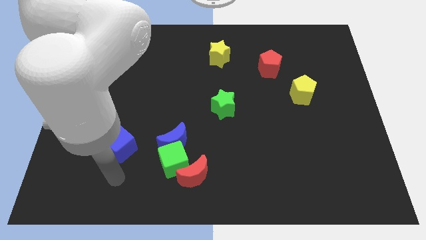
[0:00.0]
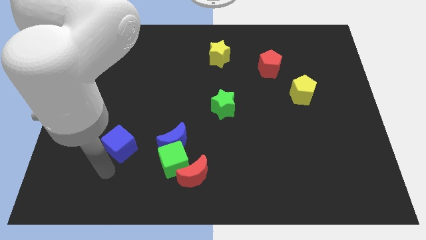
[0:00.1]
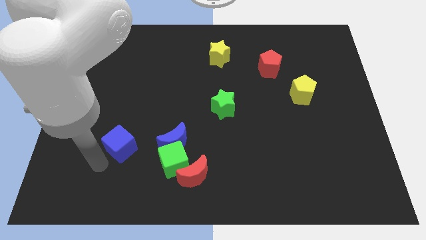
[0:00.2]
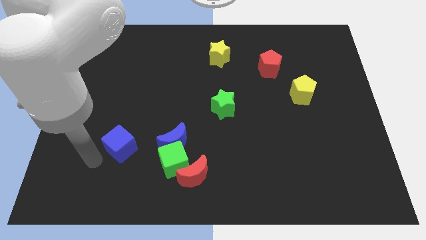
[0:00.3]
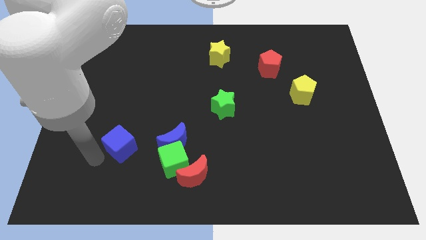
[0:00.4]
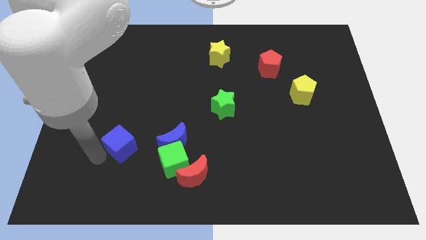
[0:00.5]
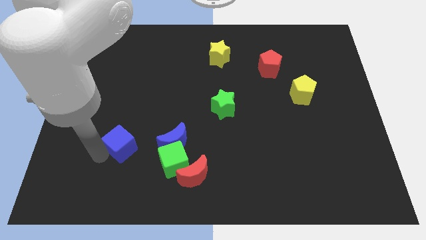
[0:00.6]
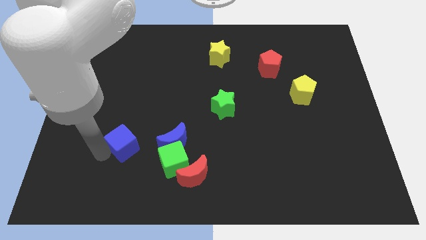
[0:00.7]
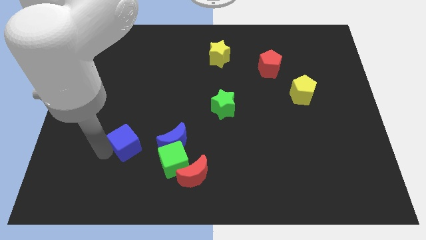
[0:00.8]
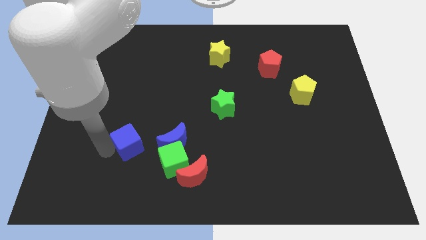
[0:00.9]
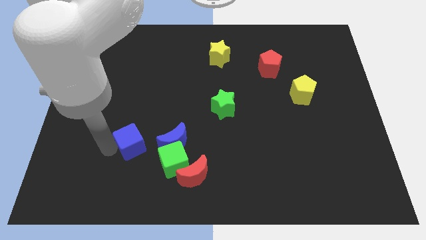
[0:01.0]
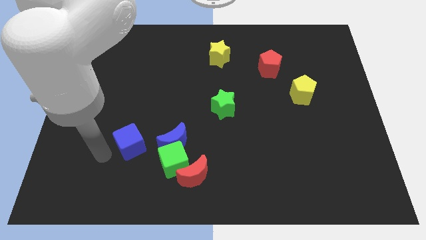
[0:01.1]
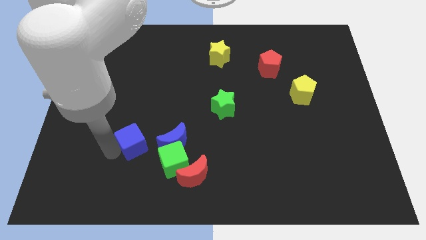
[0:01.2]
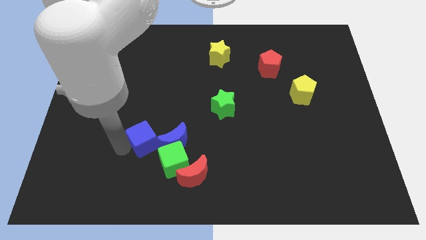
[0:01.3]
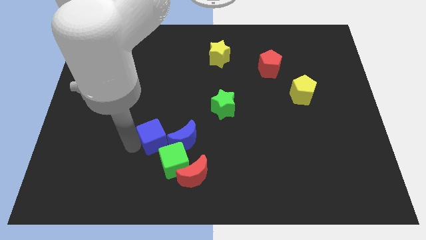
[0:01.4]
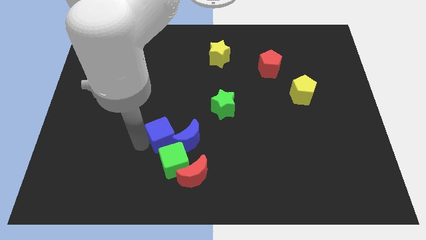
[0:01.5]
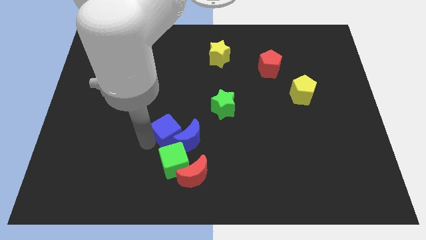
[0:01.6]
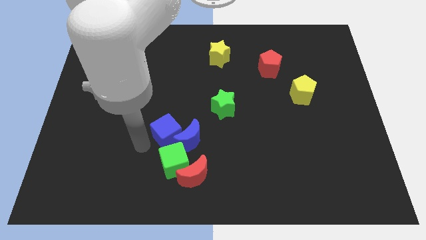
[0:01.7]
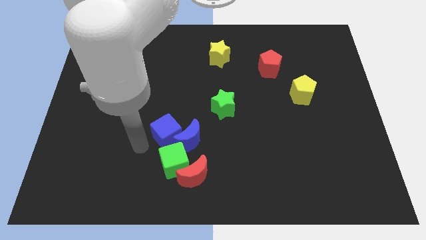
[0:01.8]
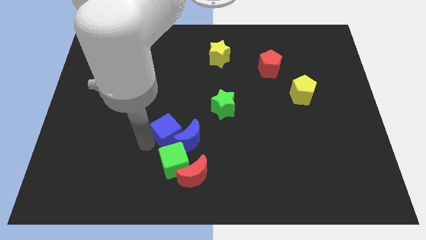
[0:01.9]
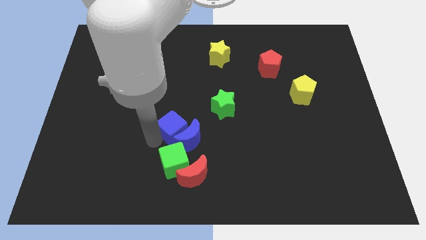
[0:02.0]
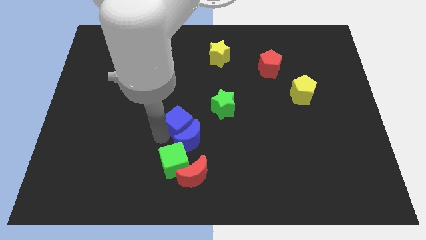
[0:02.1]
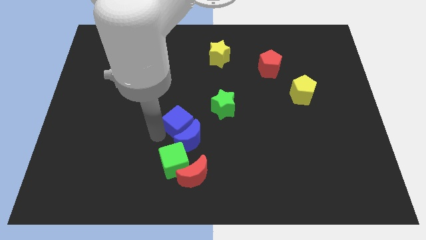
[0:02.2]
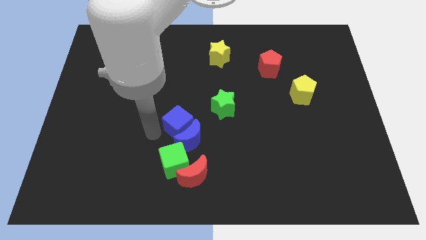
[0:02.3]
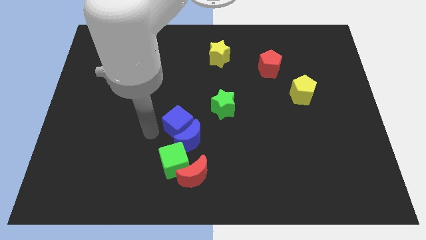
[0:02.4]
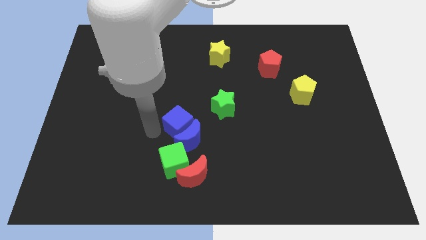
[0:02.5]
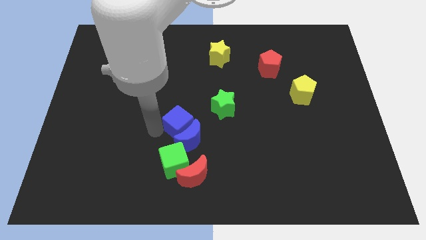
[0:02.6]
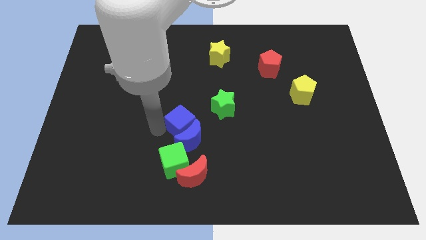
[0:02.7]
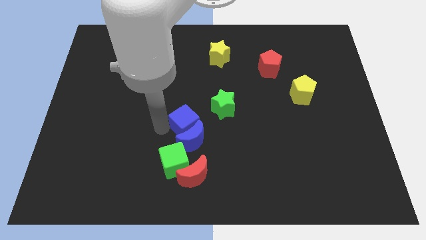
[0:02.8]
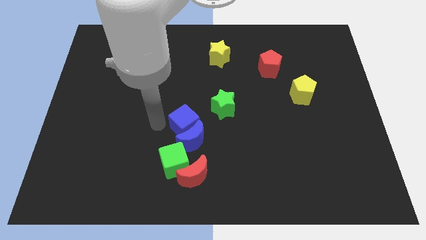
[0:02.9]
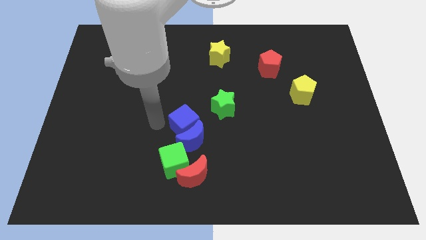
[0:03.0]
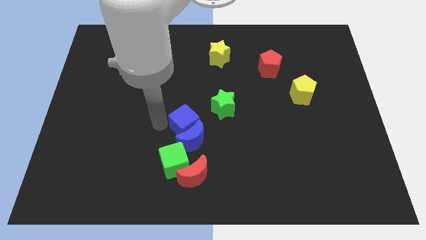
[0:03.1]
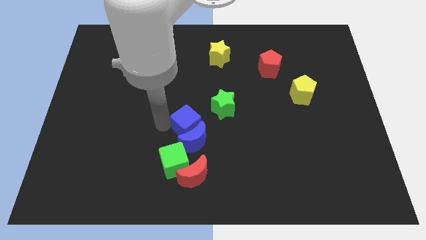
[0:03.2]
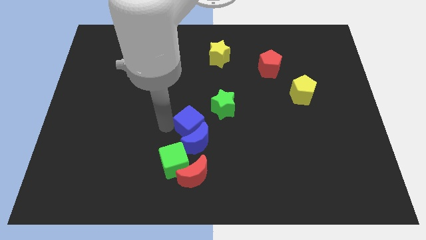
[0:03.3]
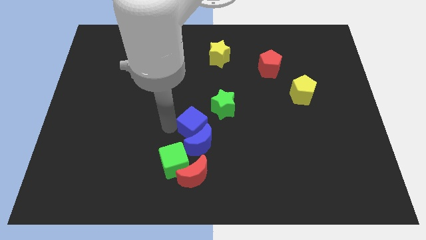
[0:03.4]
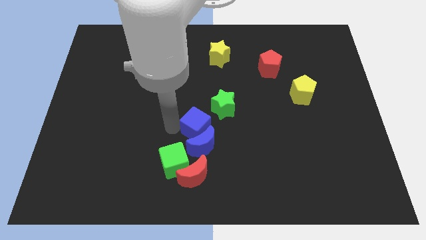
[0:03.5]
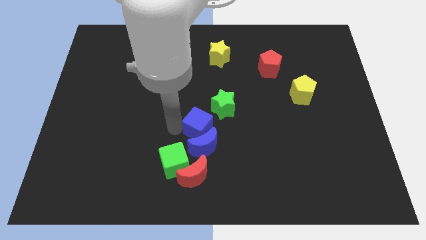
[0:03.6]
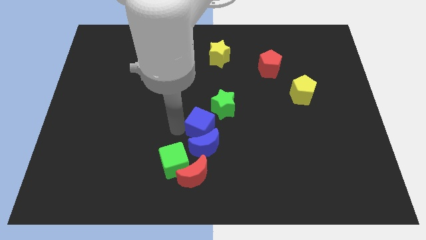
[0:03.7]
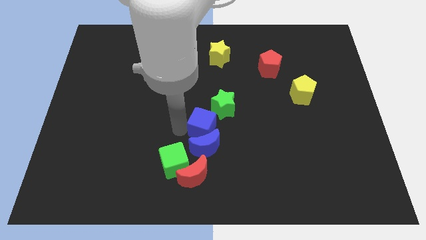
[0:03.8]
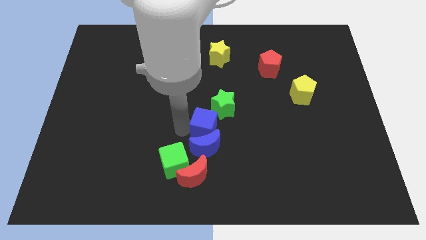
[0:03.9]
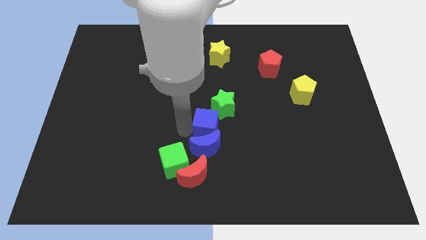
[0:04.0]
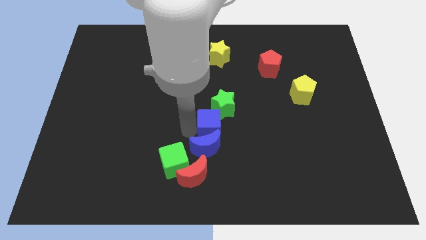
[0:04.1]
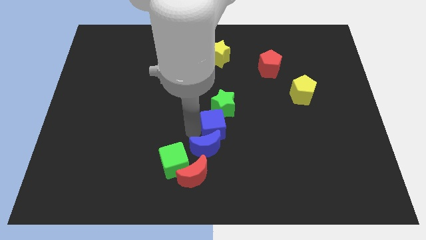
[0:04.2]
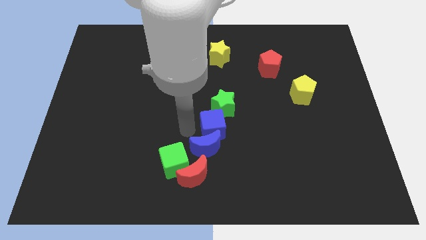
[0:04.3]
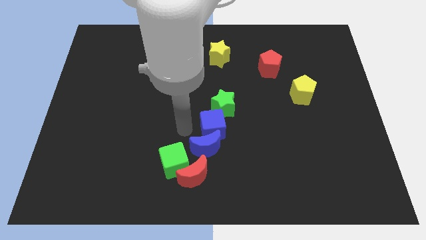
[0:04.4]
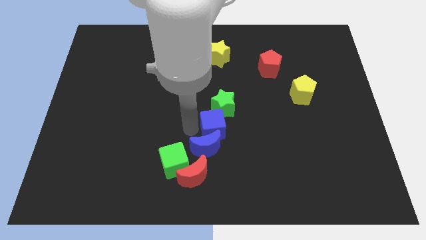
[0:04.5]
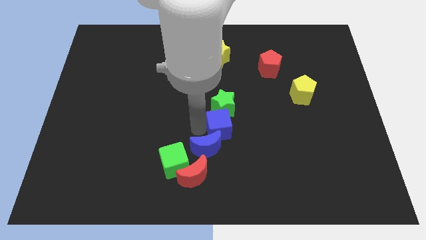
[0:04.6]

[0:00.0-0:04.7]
slide the blue cube to the bottom right of the green star

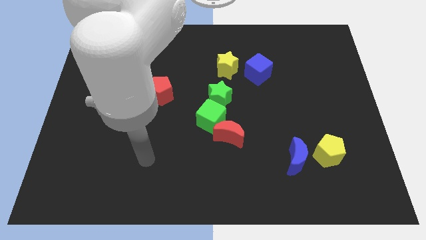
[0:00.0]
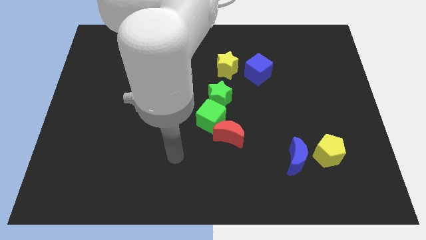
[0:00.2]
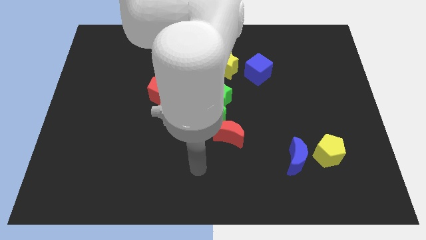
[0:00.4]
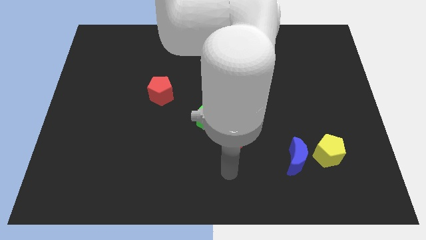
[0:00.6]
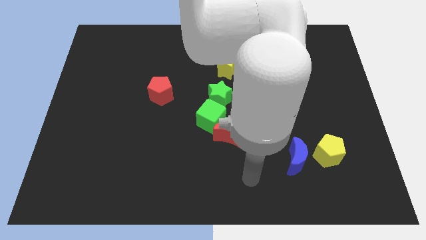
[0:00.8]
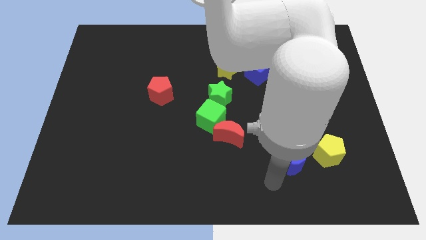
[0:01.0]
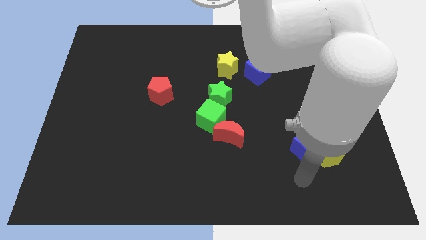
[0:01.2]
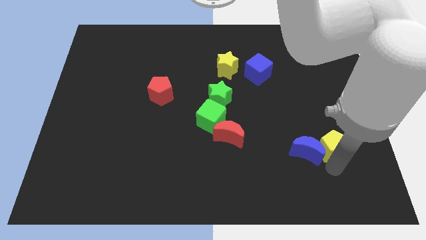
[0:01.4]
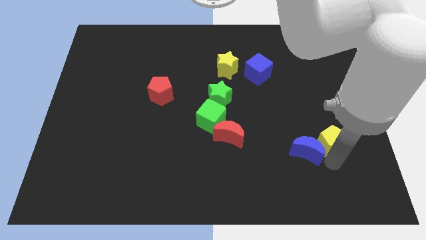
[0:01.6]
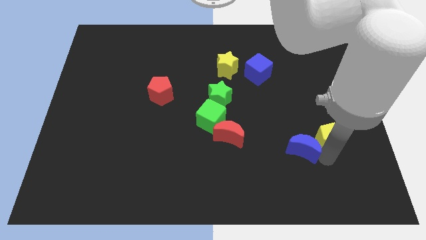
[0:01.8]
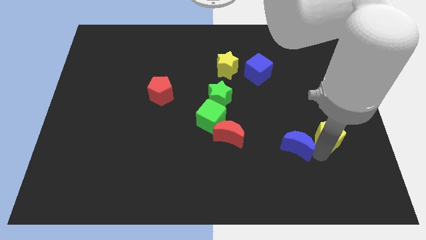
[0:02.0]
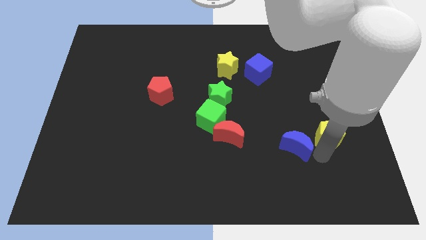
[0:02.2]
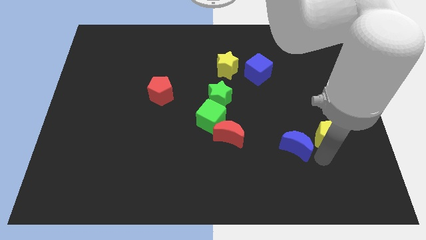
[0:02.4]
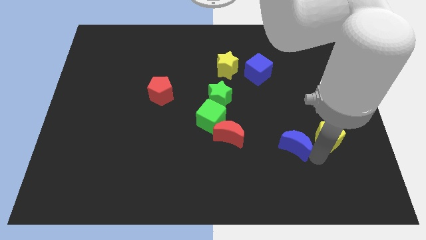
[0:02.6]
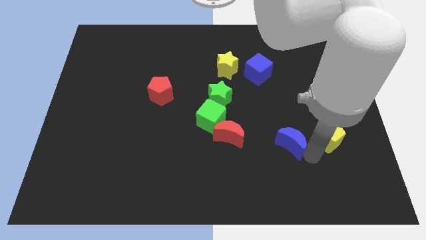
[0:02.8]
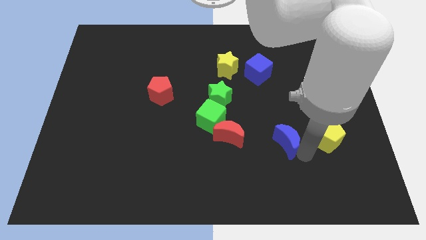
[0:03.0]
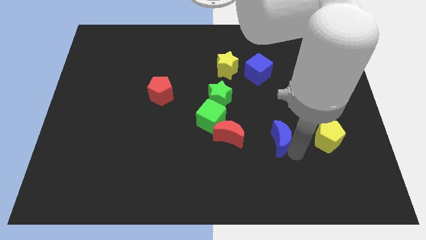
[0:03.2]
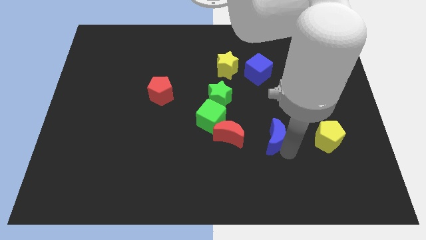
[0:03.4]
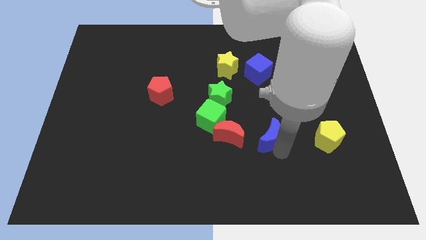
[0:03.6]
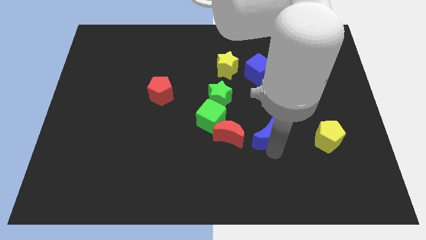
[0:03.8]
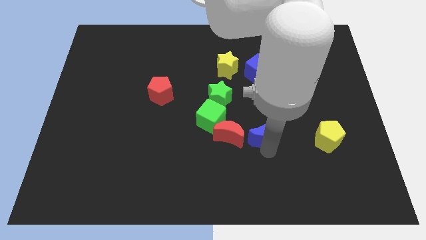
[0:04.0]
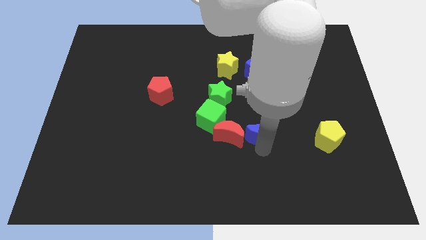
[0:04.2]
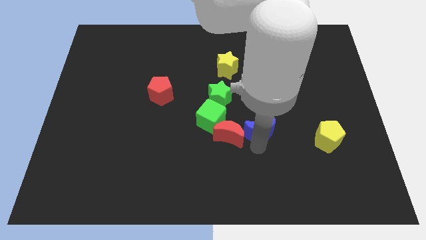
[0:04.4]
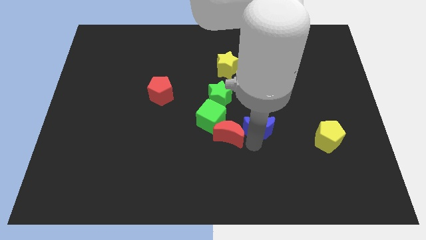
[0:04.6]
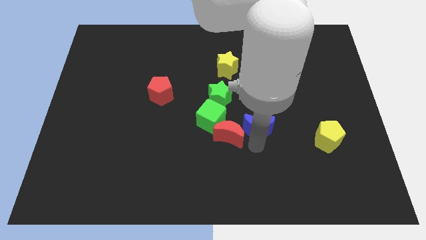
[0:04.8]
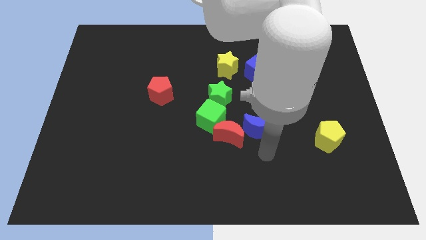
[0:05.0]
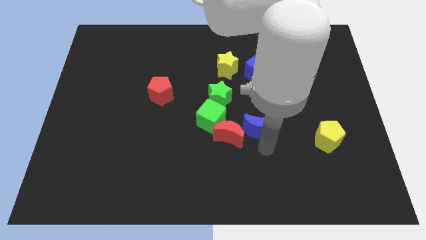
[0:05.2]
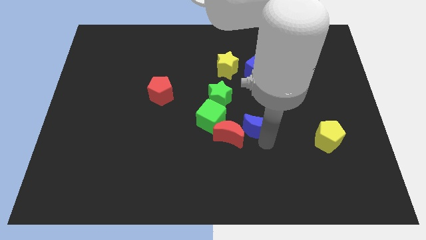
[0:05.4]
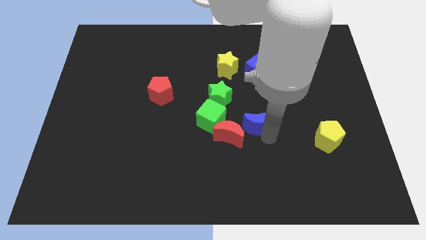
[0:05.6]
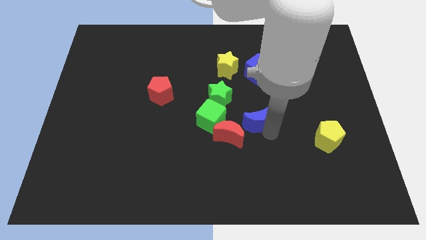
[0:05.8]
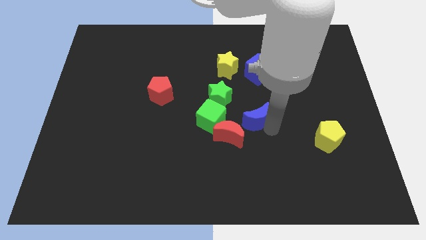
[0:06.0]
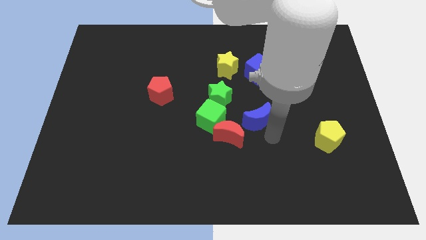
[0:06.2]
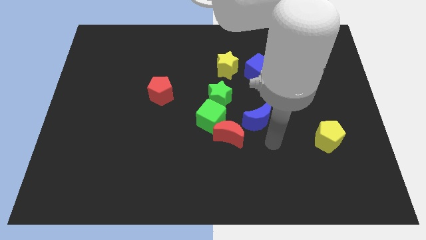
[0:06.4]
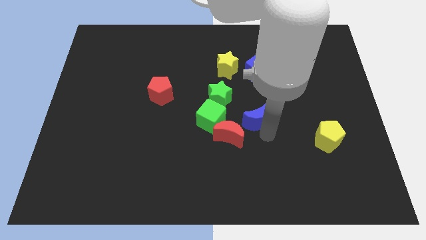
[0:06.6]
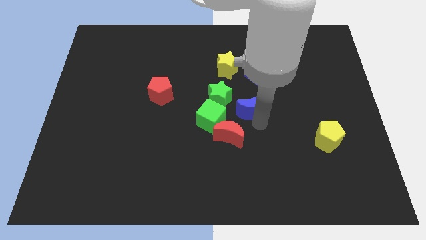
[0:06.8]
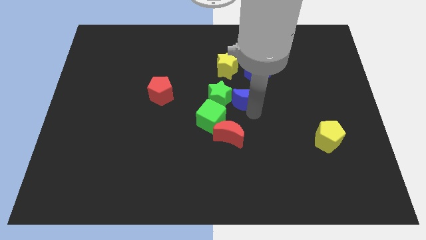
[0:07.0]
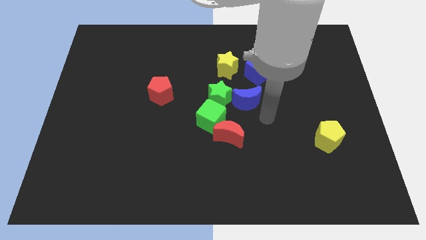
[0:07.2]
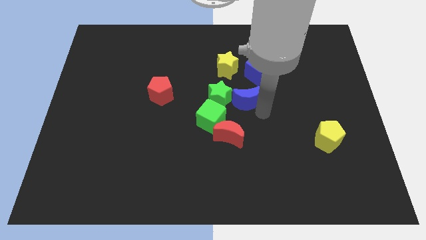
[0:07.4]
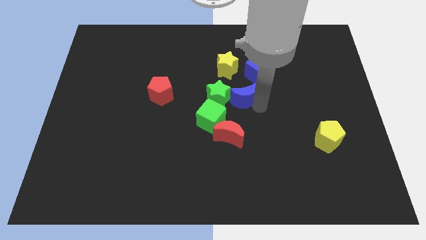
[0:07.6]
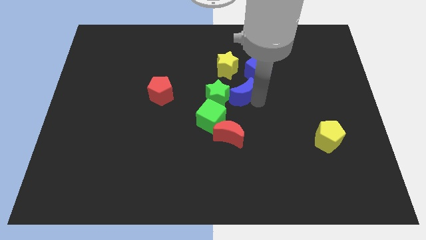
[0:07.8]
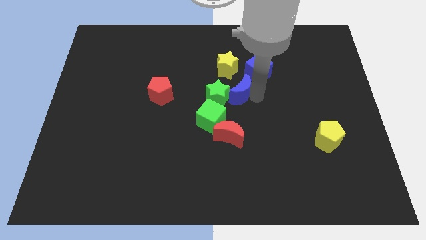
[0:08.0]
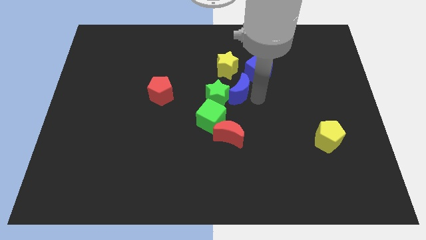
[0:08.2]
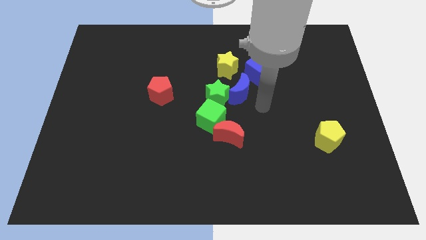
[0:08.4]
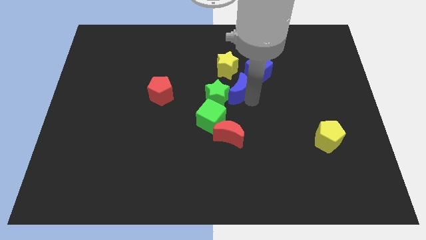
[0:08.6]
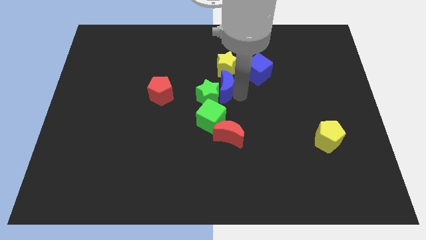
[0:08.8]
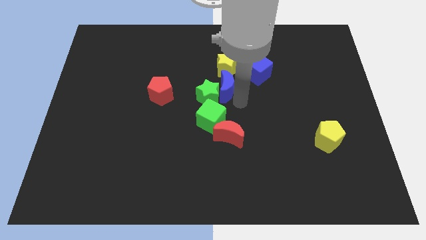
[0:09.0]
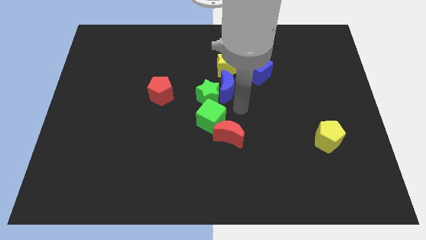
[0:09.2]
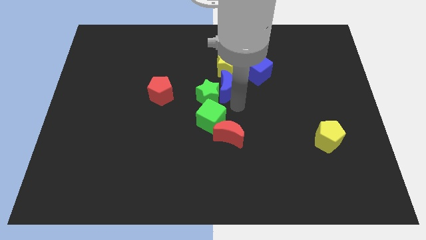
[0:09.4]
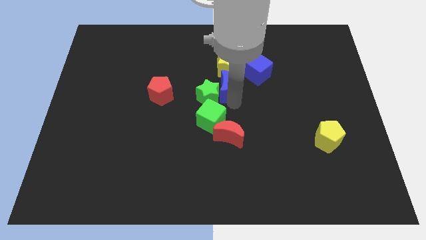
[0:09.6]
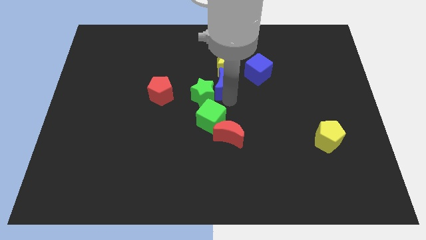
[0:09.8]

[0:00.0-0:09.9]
move the blue moon to the left of the blue cube
